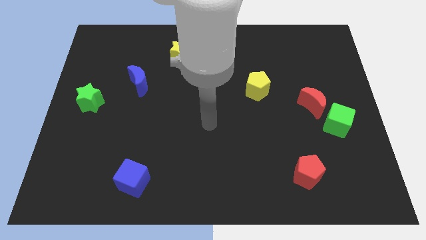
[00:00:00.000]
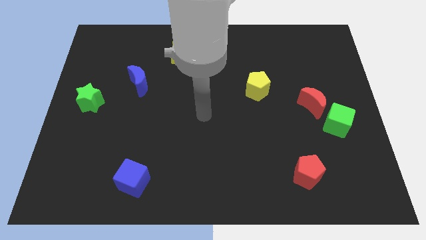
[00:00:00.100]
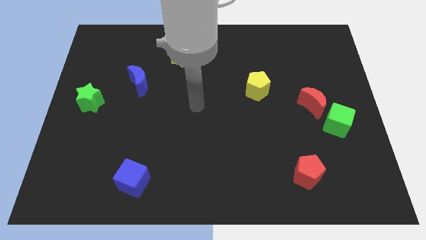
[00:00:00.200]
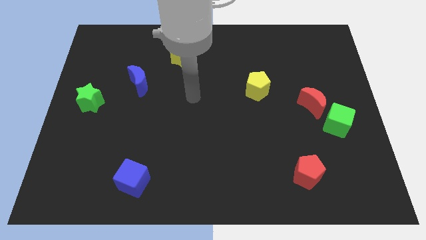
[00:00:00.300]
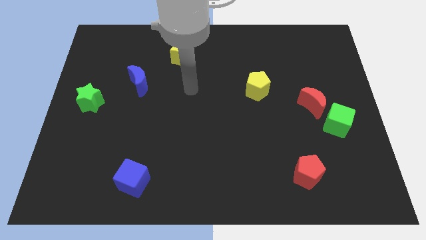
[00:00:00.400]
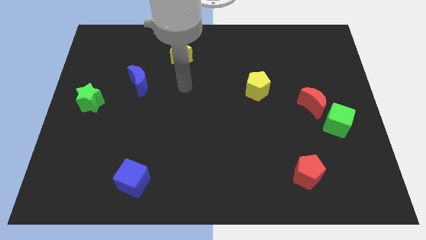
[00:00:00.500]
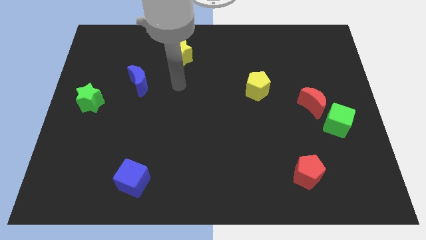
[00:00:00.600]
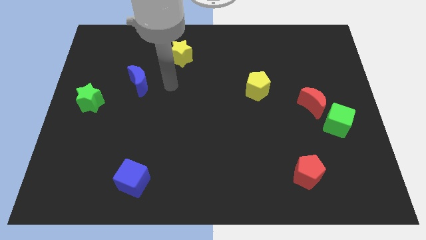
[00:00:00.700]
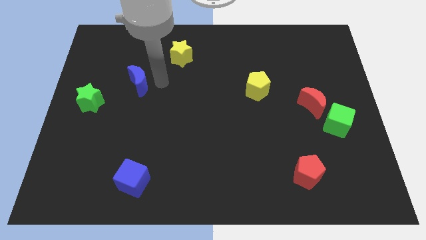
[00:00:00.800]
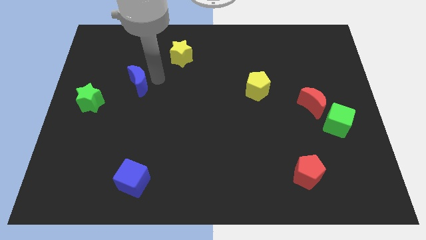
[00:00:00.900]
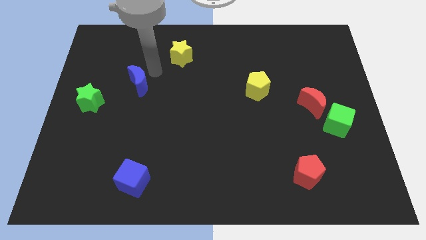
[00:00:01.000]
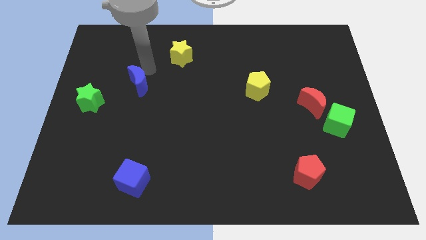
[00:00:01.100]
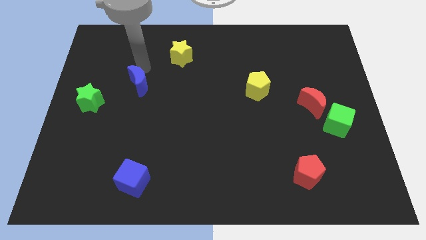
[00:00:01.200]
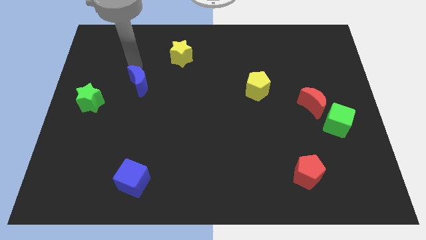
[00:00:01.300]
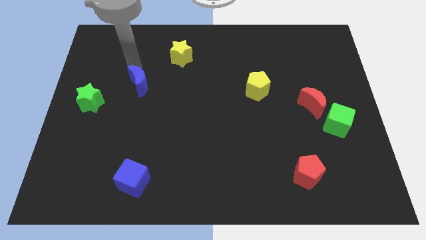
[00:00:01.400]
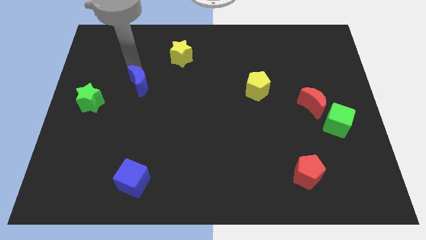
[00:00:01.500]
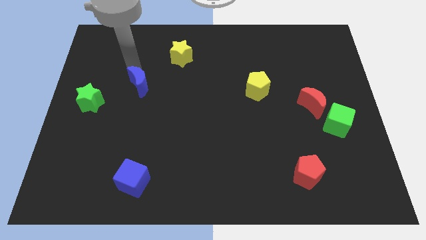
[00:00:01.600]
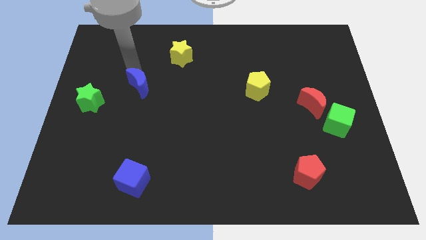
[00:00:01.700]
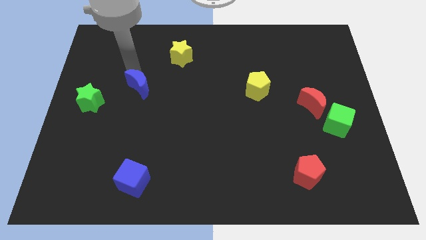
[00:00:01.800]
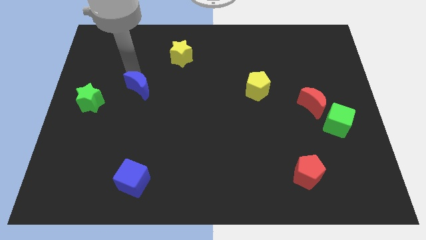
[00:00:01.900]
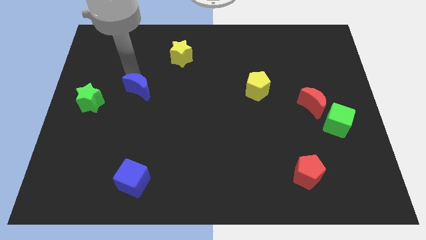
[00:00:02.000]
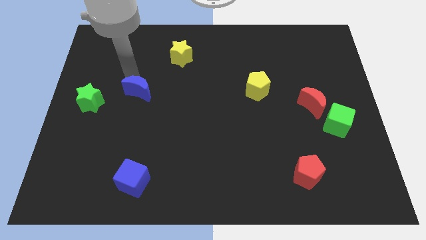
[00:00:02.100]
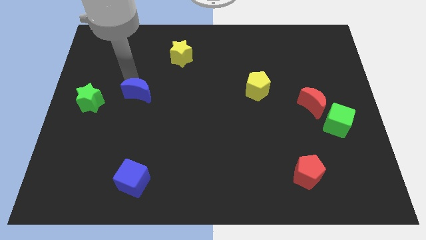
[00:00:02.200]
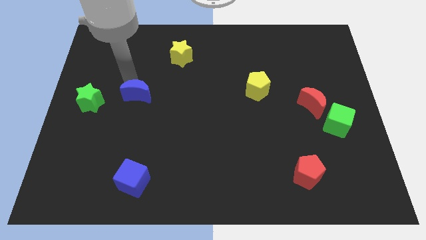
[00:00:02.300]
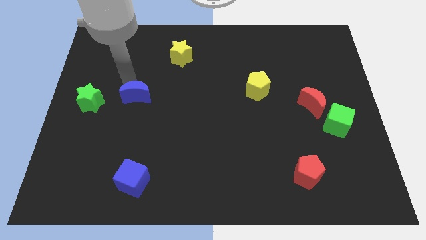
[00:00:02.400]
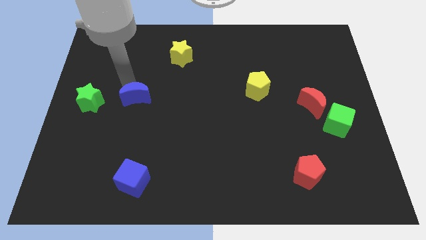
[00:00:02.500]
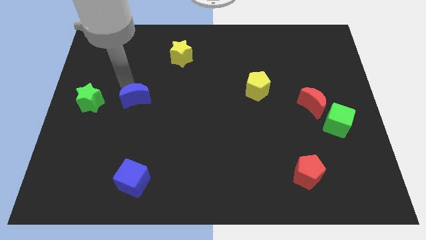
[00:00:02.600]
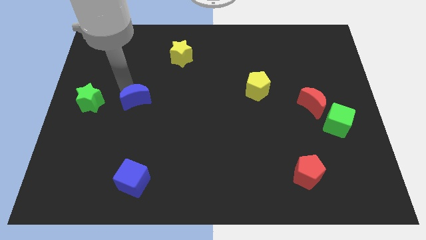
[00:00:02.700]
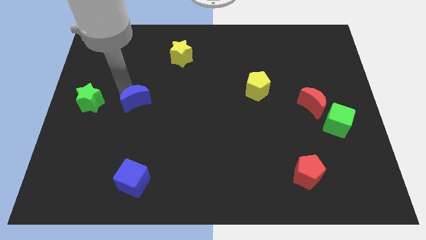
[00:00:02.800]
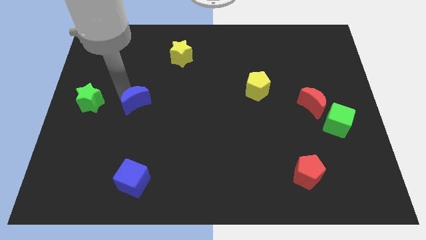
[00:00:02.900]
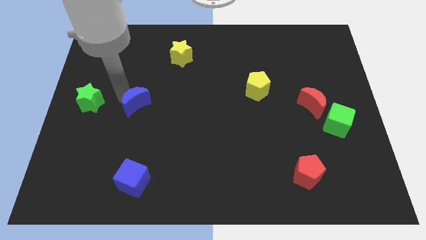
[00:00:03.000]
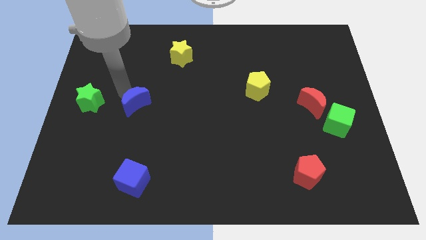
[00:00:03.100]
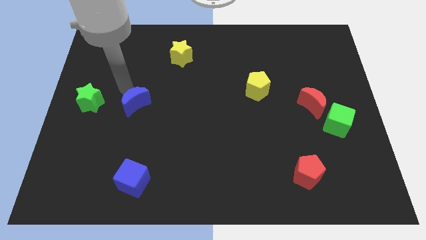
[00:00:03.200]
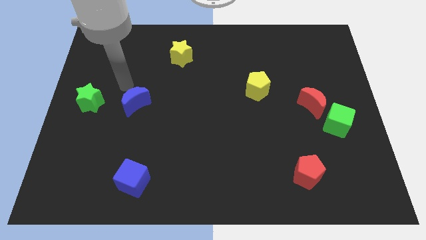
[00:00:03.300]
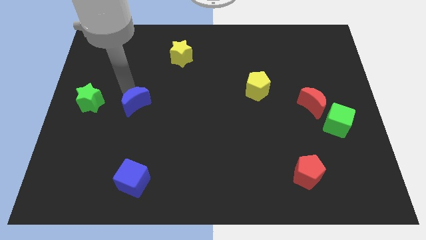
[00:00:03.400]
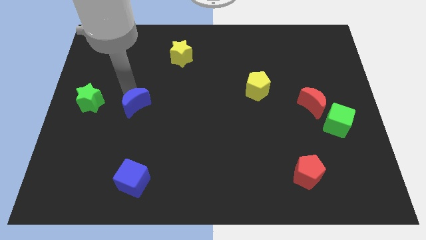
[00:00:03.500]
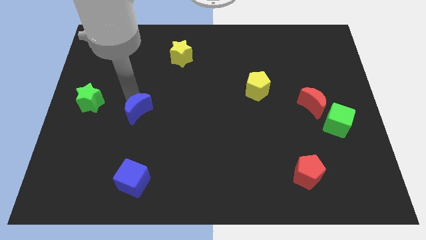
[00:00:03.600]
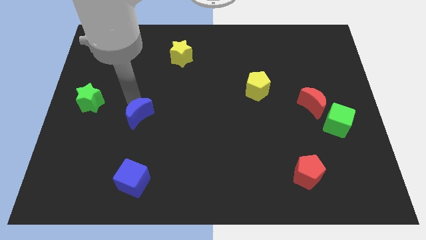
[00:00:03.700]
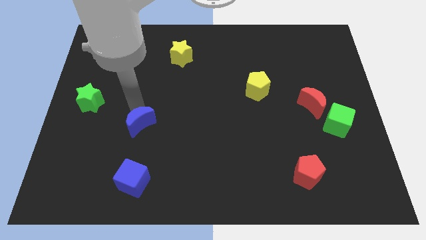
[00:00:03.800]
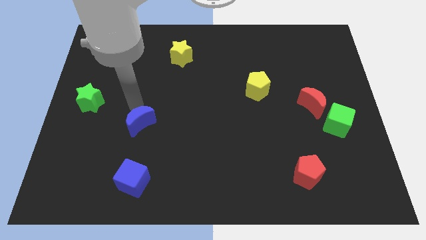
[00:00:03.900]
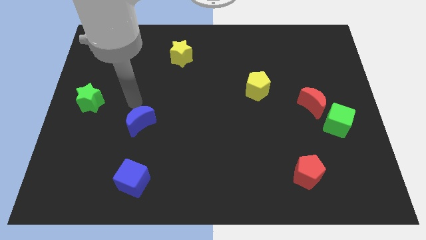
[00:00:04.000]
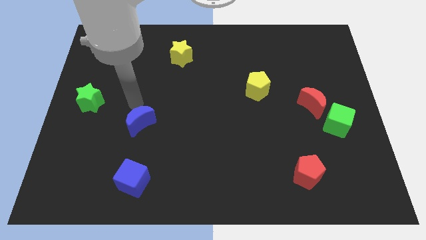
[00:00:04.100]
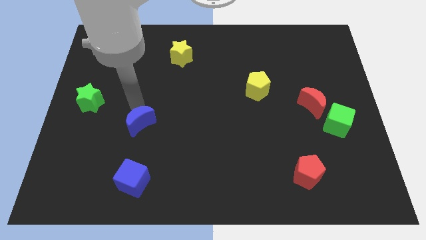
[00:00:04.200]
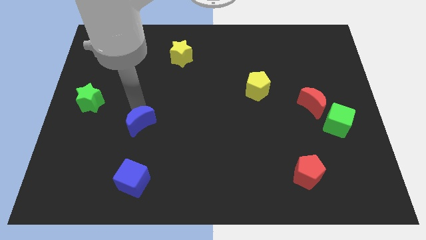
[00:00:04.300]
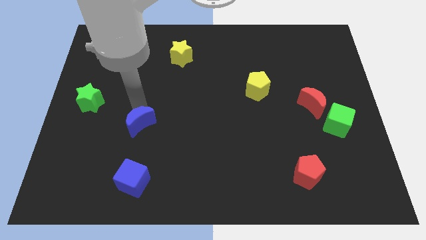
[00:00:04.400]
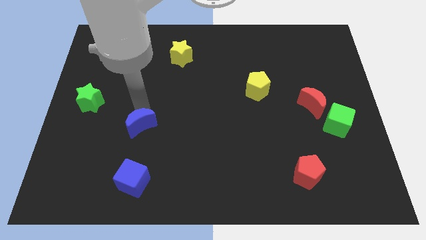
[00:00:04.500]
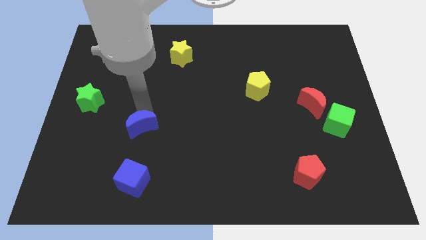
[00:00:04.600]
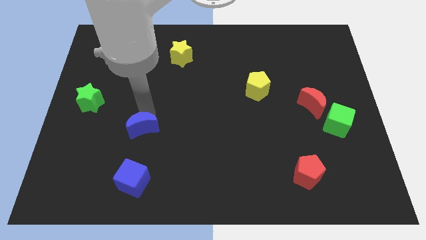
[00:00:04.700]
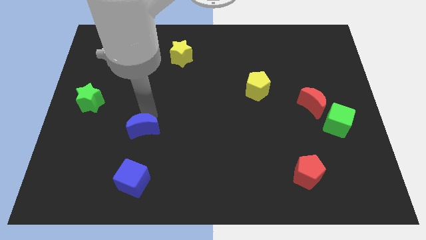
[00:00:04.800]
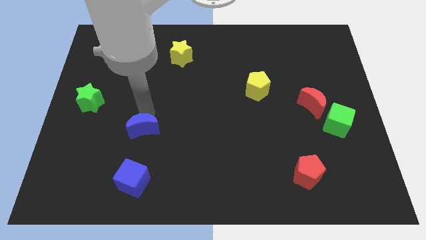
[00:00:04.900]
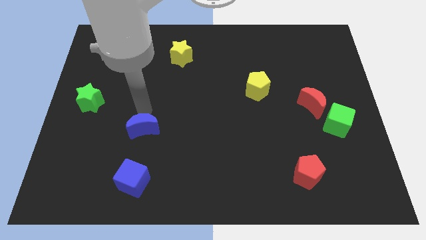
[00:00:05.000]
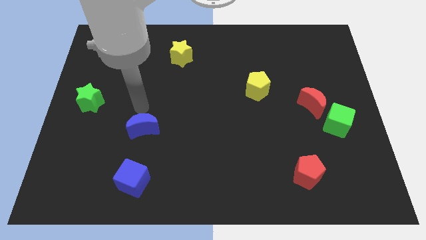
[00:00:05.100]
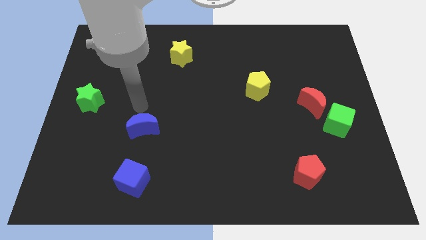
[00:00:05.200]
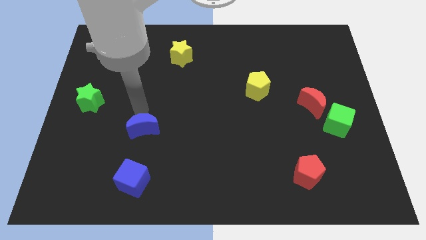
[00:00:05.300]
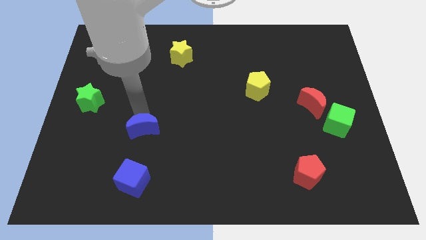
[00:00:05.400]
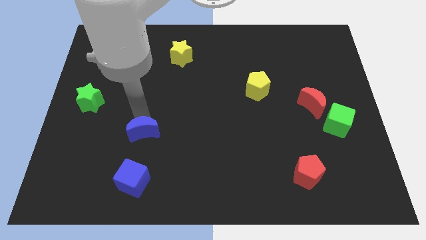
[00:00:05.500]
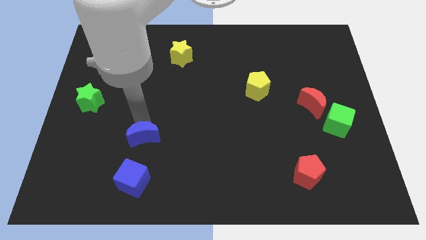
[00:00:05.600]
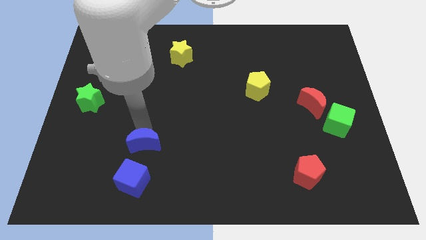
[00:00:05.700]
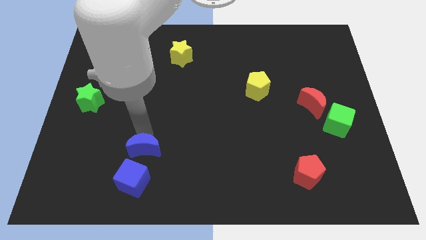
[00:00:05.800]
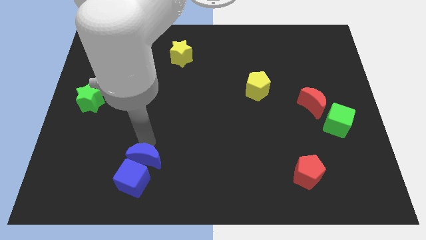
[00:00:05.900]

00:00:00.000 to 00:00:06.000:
put the blue moon close to the blue cube

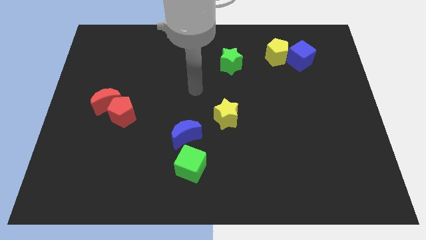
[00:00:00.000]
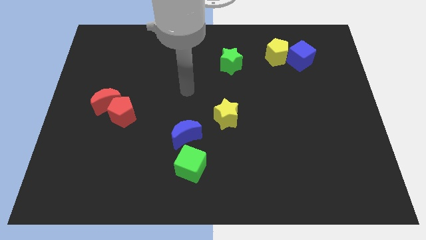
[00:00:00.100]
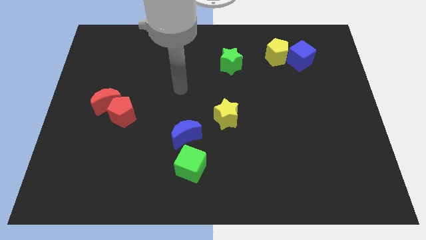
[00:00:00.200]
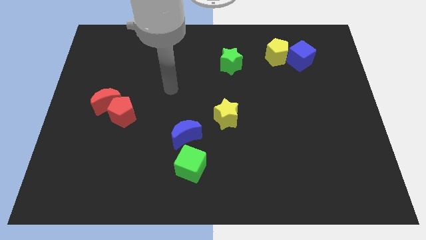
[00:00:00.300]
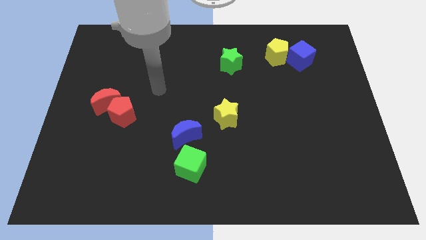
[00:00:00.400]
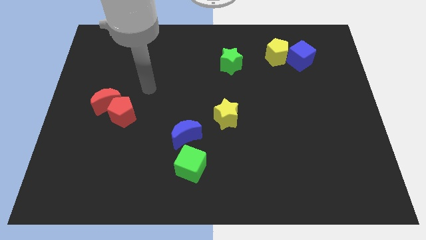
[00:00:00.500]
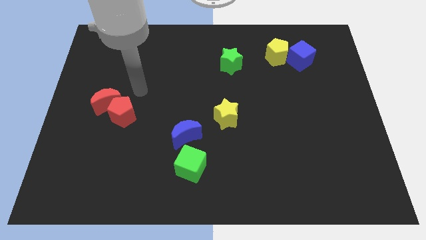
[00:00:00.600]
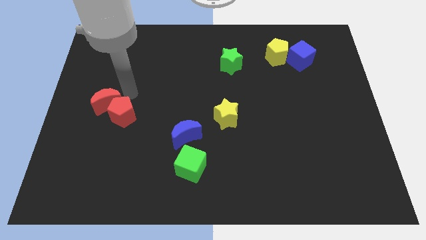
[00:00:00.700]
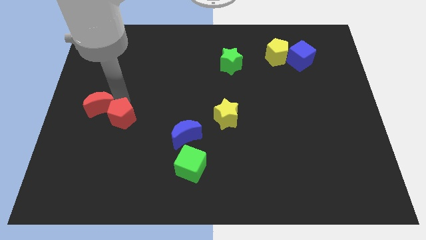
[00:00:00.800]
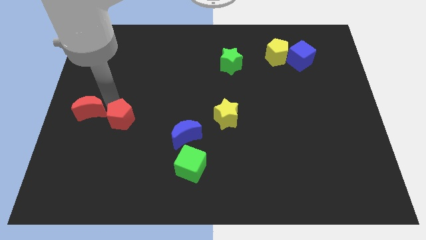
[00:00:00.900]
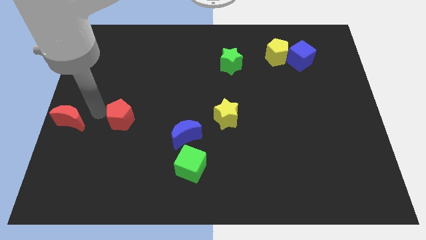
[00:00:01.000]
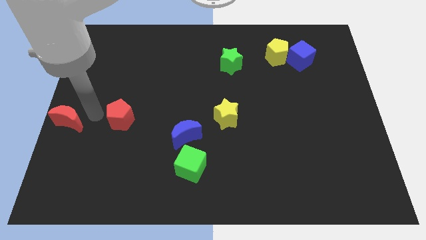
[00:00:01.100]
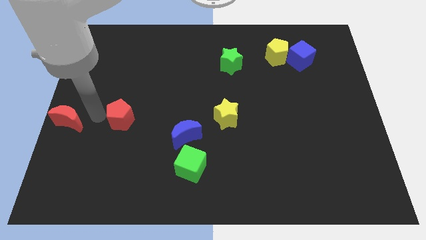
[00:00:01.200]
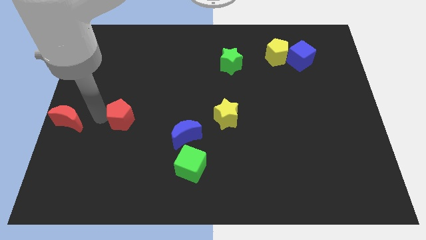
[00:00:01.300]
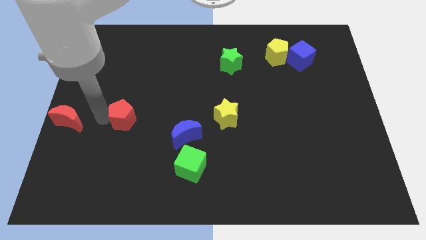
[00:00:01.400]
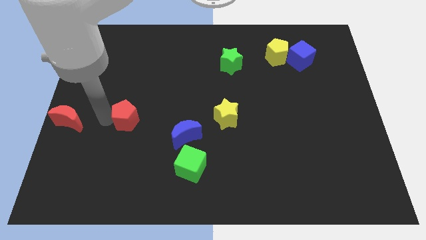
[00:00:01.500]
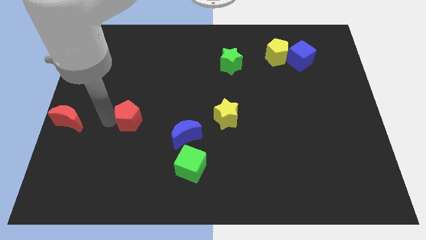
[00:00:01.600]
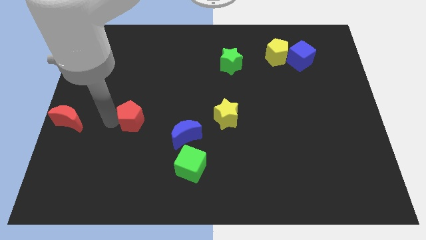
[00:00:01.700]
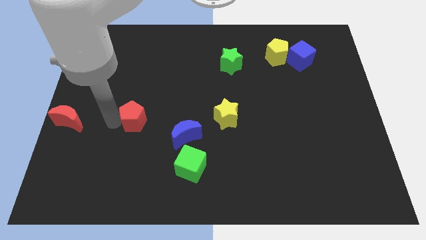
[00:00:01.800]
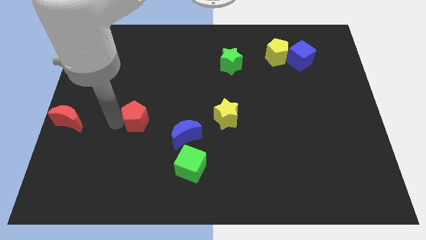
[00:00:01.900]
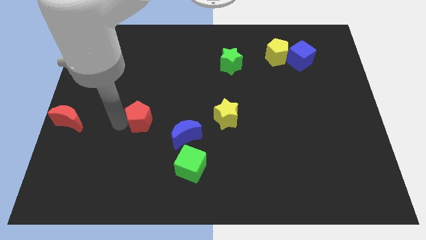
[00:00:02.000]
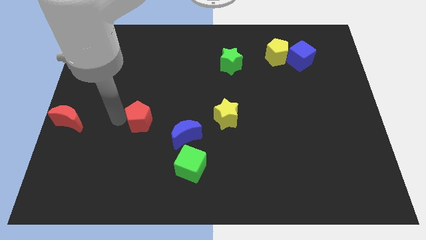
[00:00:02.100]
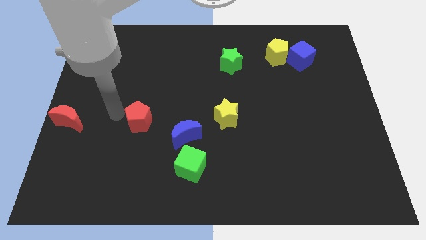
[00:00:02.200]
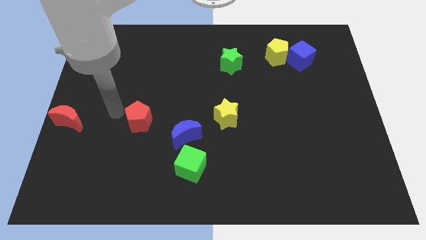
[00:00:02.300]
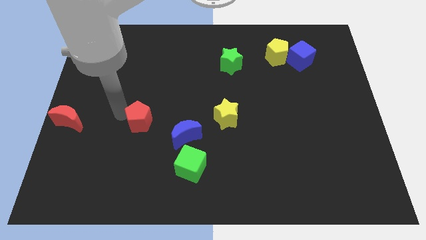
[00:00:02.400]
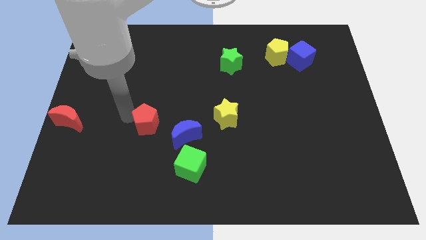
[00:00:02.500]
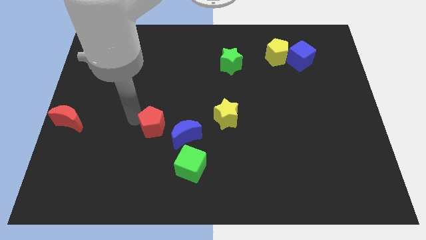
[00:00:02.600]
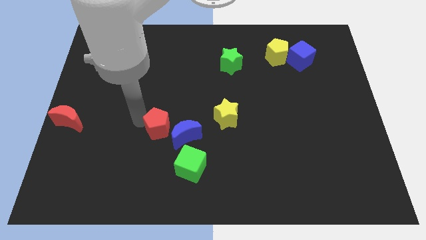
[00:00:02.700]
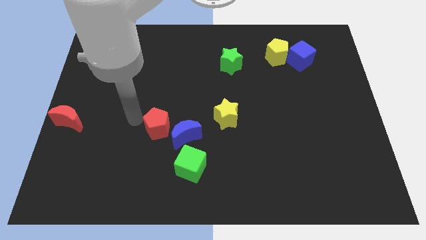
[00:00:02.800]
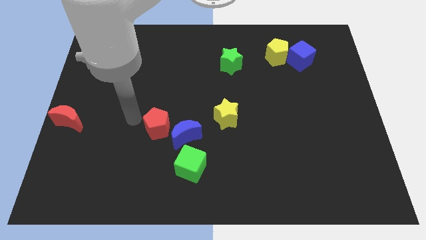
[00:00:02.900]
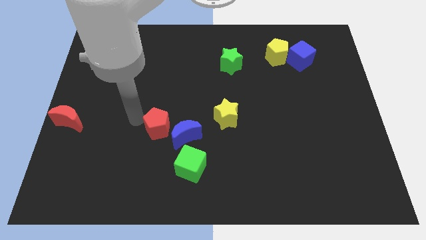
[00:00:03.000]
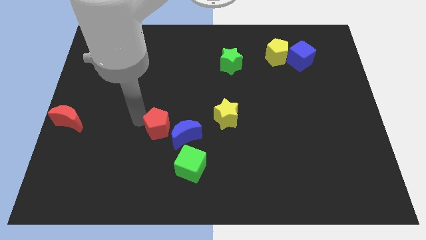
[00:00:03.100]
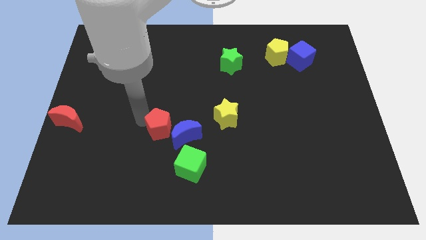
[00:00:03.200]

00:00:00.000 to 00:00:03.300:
slide the red pentagon next to the blue moon
